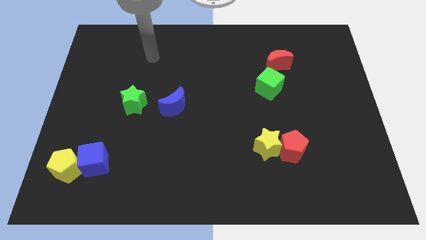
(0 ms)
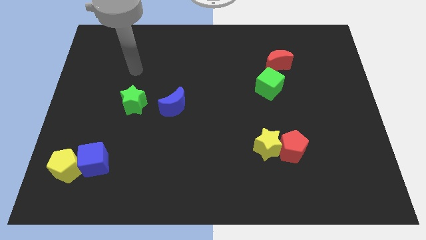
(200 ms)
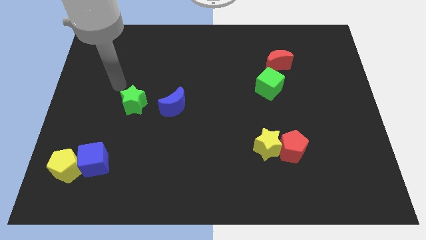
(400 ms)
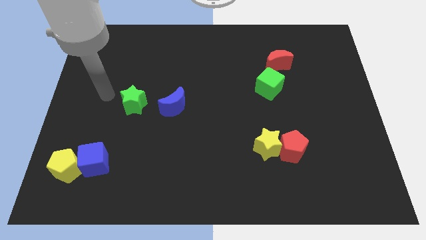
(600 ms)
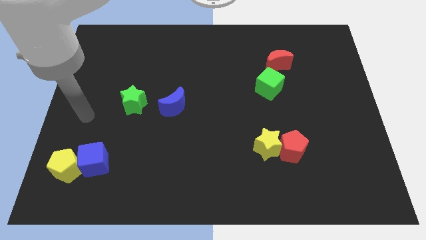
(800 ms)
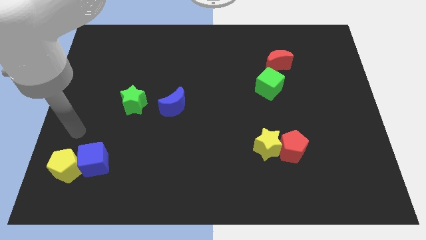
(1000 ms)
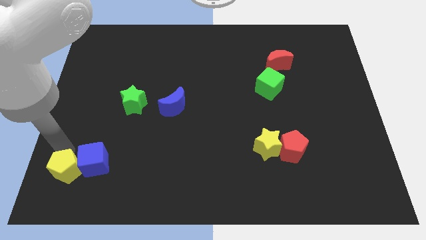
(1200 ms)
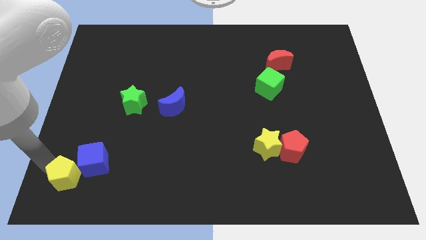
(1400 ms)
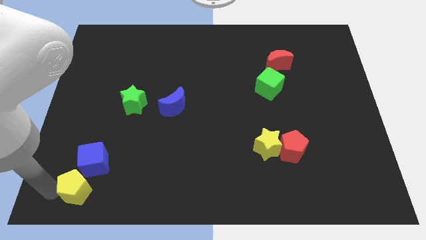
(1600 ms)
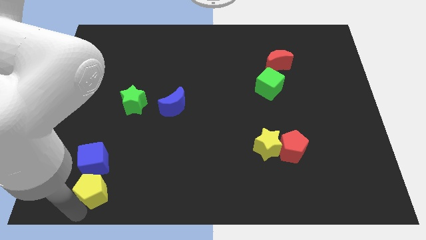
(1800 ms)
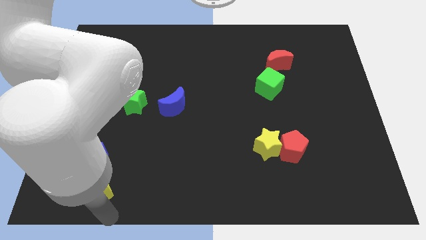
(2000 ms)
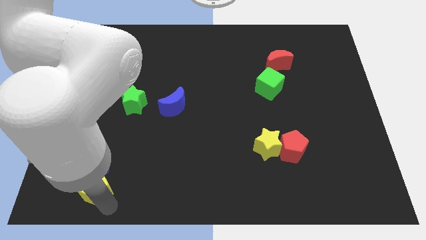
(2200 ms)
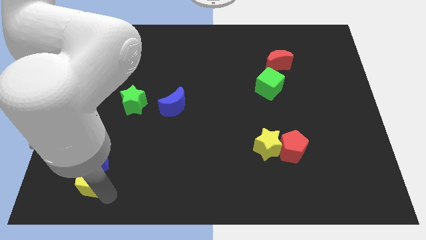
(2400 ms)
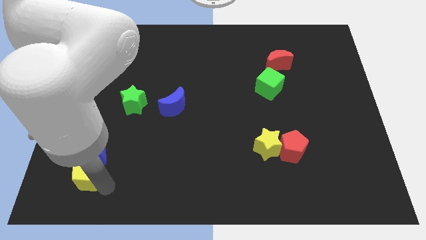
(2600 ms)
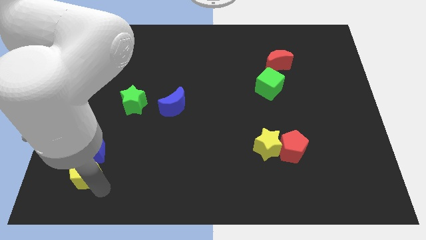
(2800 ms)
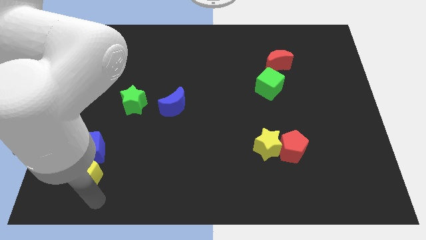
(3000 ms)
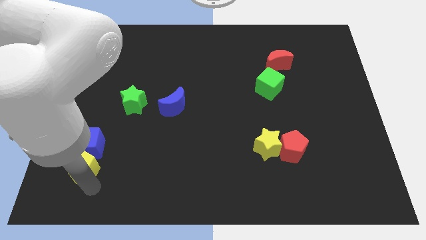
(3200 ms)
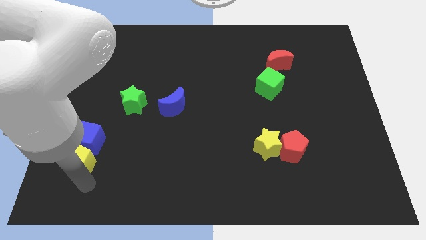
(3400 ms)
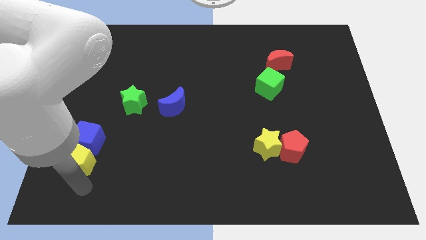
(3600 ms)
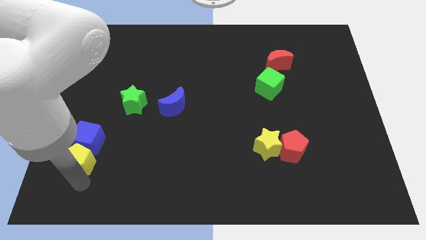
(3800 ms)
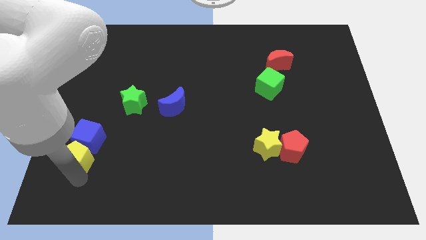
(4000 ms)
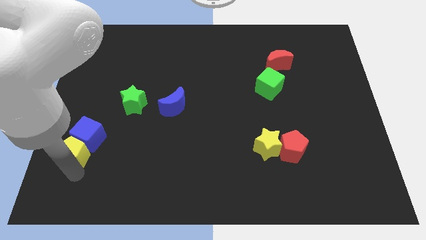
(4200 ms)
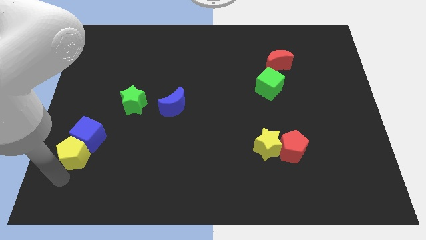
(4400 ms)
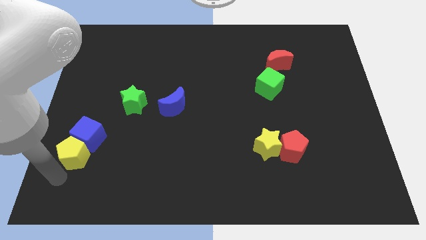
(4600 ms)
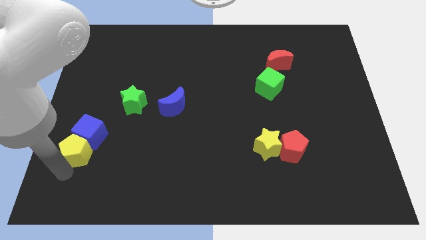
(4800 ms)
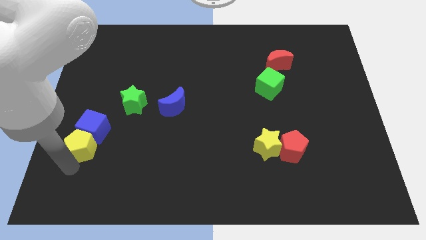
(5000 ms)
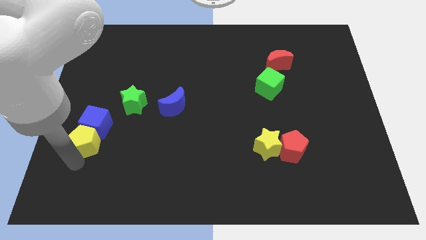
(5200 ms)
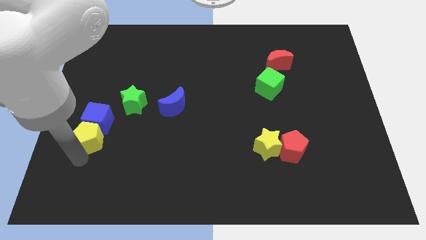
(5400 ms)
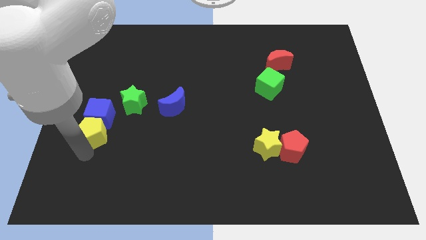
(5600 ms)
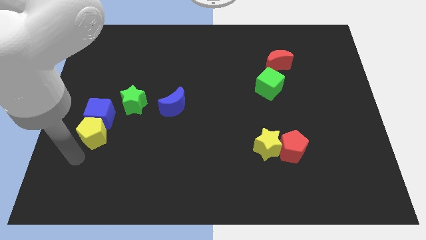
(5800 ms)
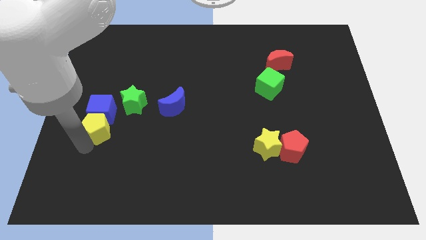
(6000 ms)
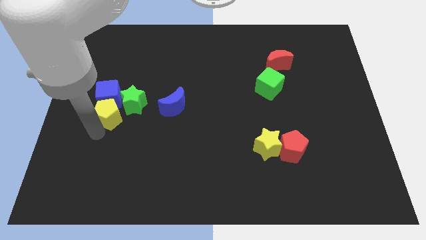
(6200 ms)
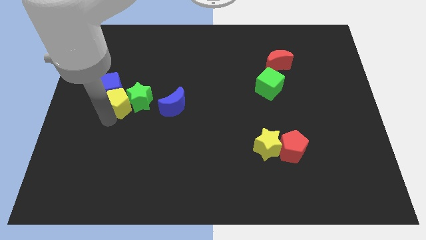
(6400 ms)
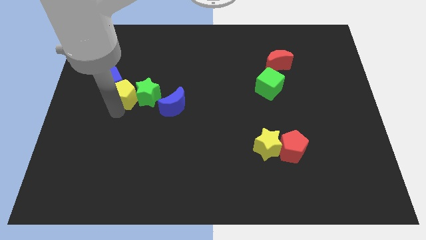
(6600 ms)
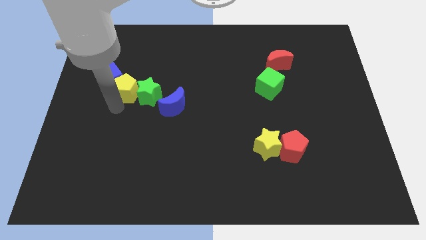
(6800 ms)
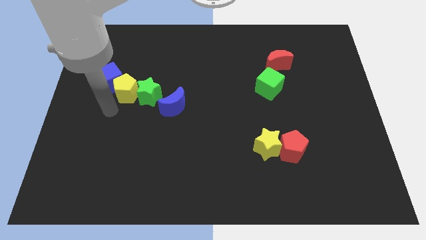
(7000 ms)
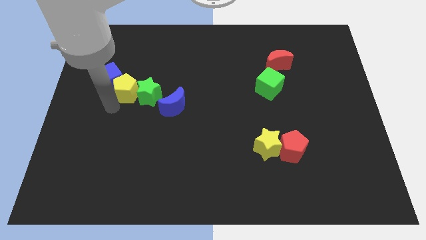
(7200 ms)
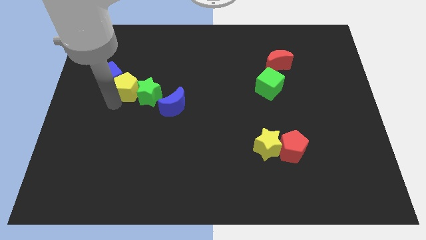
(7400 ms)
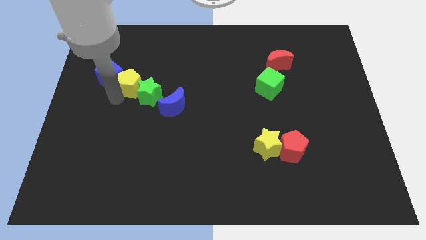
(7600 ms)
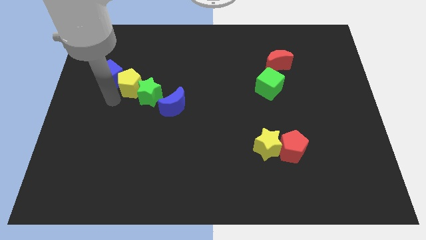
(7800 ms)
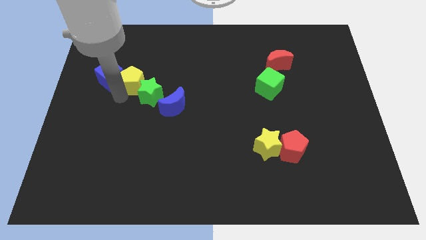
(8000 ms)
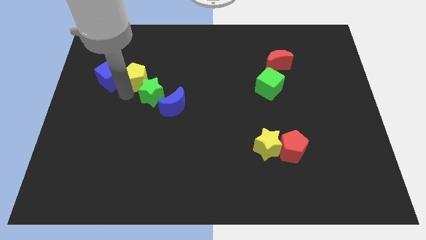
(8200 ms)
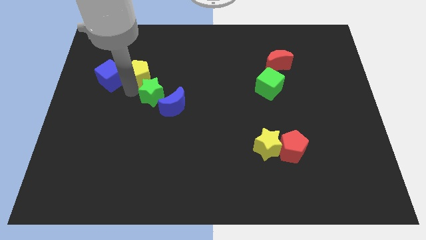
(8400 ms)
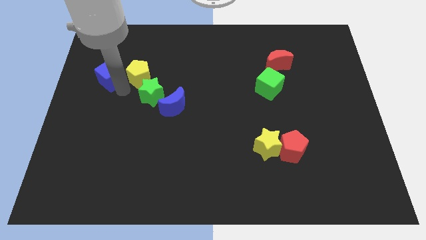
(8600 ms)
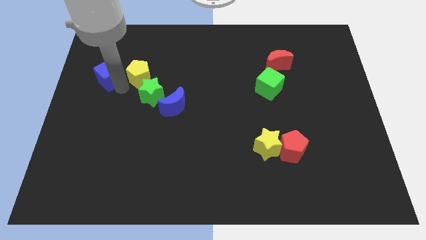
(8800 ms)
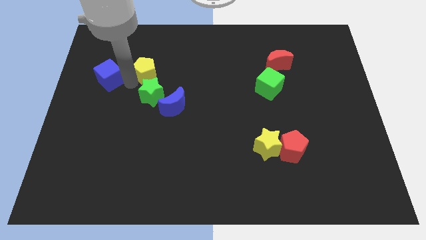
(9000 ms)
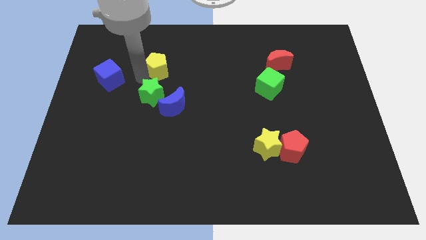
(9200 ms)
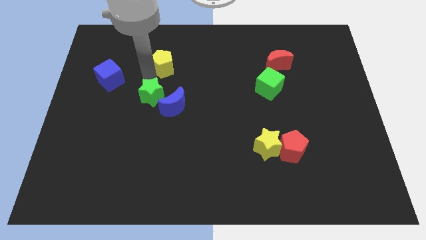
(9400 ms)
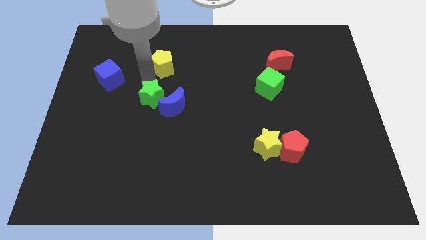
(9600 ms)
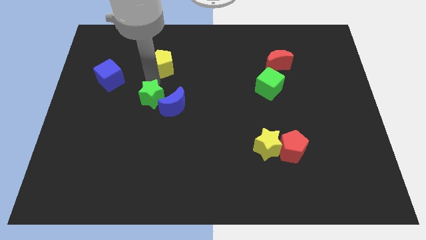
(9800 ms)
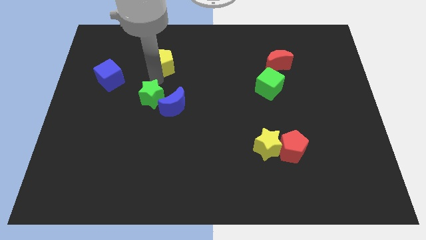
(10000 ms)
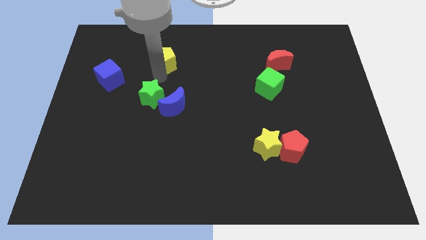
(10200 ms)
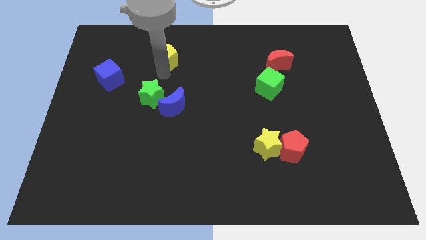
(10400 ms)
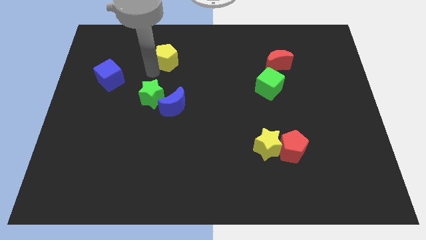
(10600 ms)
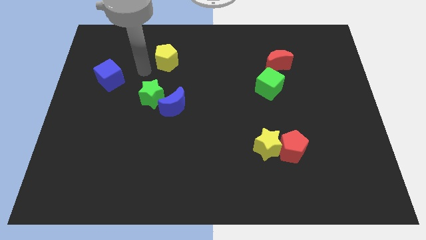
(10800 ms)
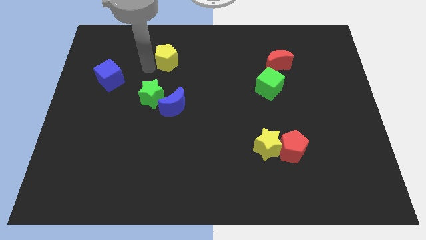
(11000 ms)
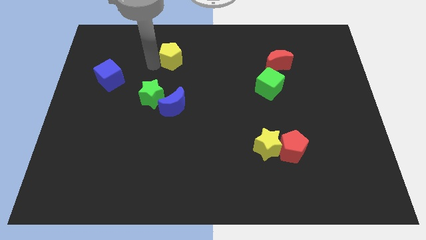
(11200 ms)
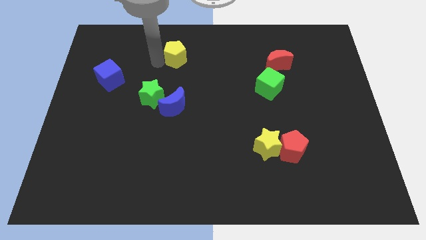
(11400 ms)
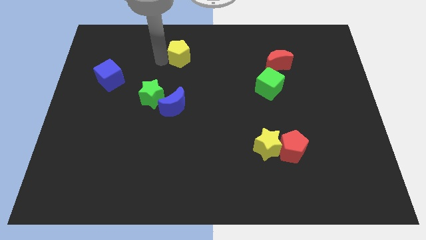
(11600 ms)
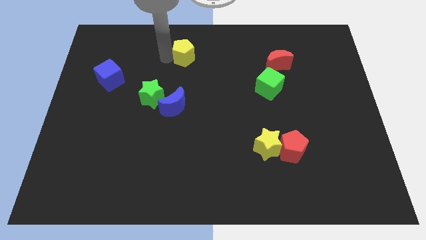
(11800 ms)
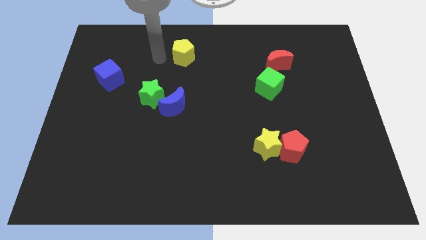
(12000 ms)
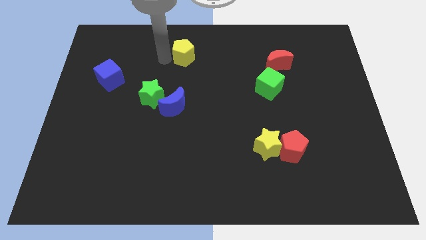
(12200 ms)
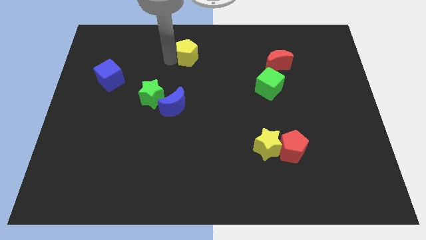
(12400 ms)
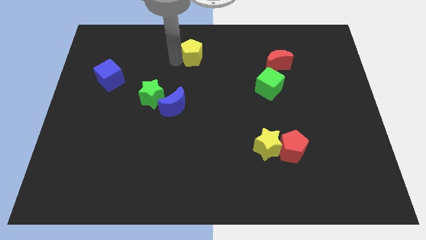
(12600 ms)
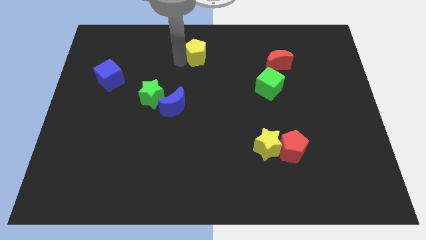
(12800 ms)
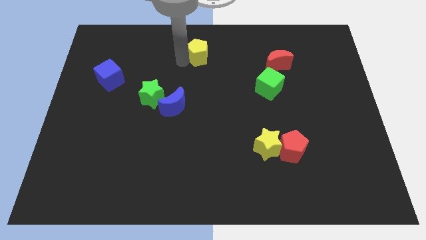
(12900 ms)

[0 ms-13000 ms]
move the yellow pentagon to the top side
